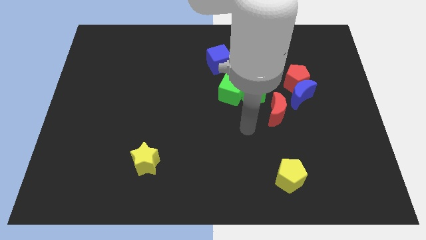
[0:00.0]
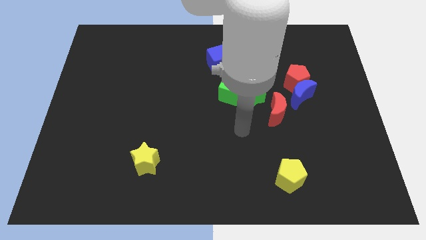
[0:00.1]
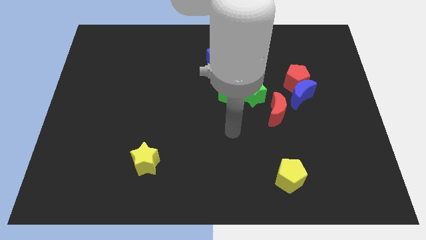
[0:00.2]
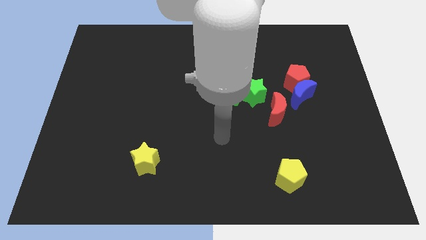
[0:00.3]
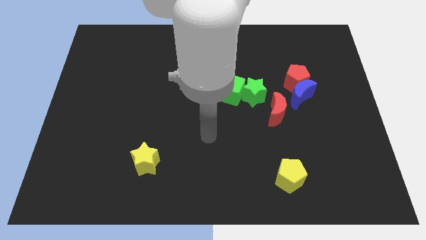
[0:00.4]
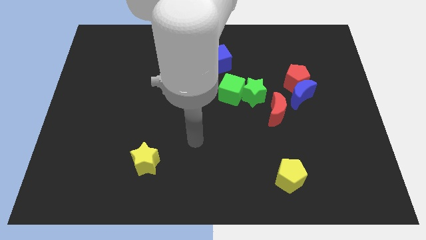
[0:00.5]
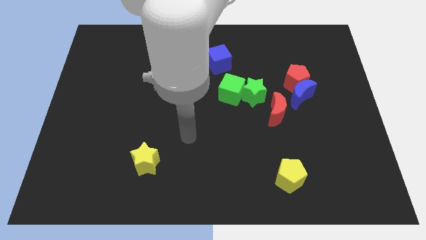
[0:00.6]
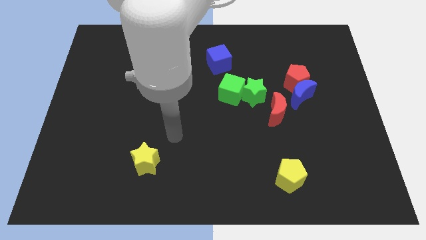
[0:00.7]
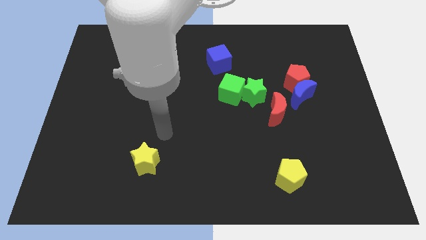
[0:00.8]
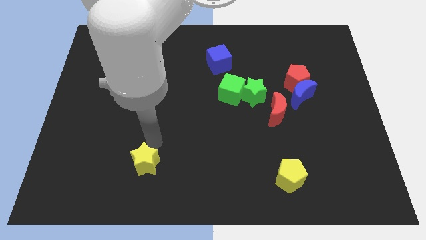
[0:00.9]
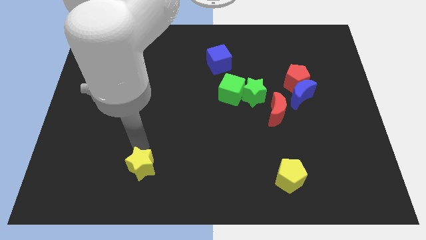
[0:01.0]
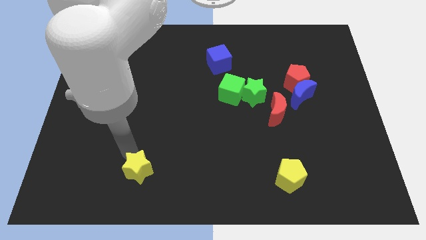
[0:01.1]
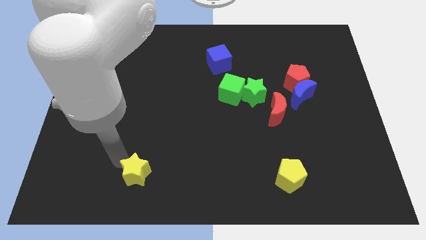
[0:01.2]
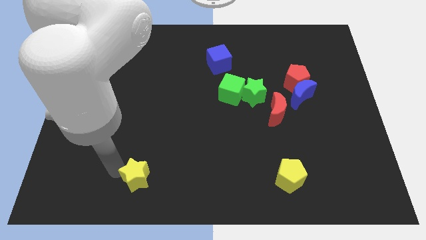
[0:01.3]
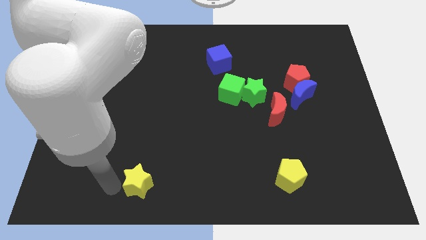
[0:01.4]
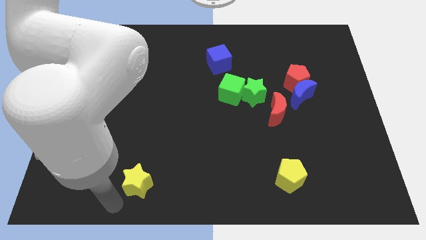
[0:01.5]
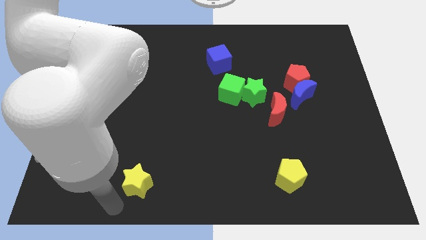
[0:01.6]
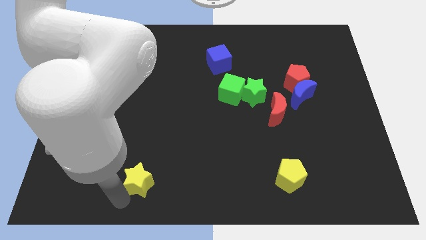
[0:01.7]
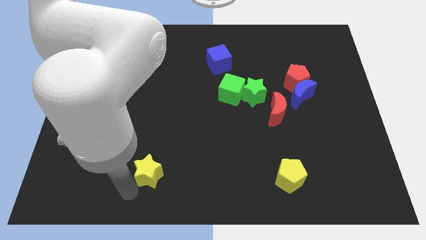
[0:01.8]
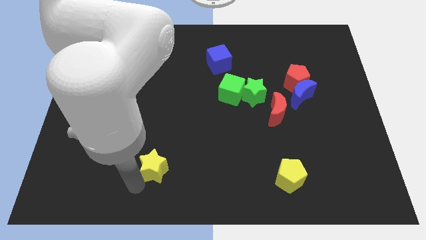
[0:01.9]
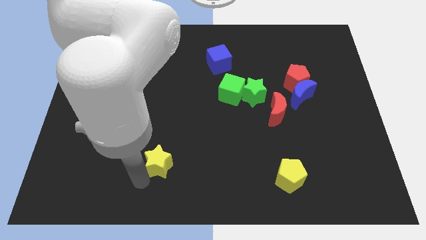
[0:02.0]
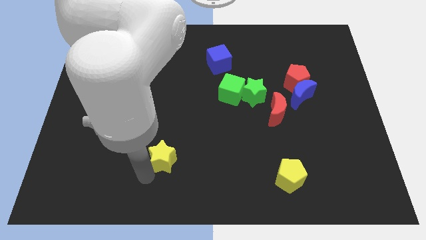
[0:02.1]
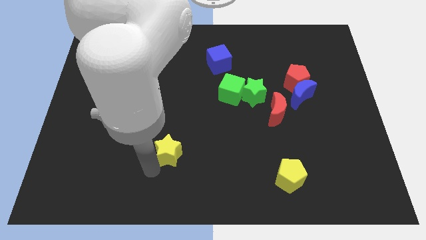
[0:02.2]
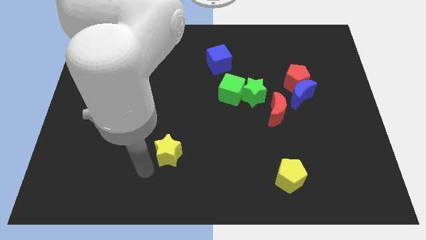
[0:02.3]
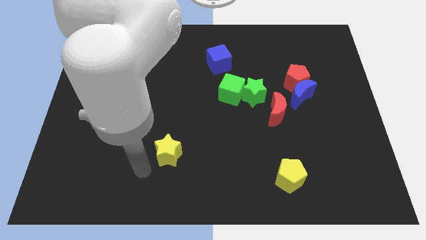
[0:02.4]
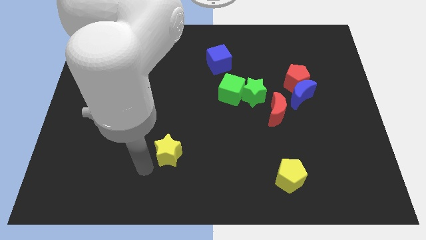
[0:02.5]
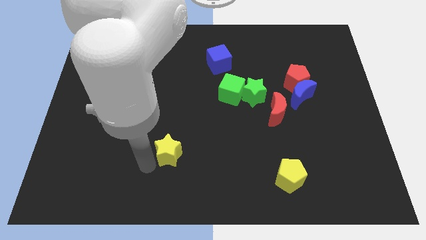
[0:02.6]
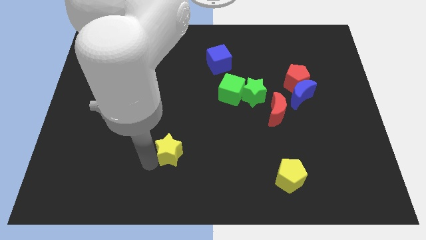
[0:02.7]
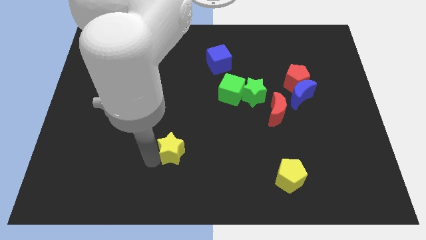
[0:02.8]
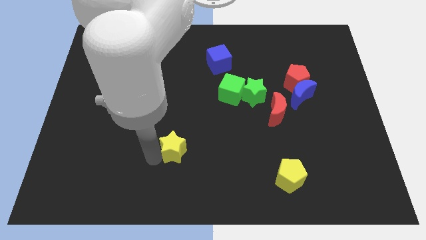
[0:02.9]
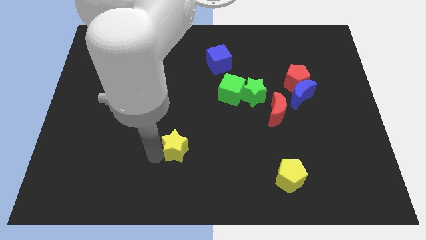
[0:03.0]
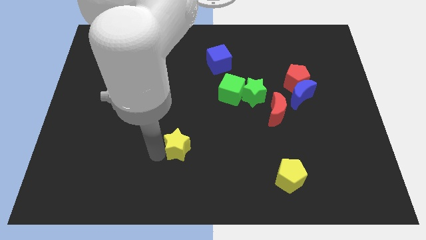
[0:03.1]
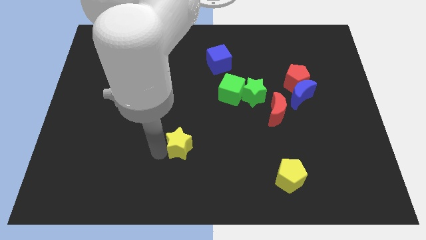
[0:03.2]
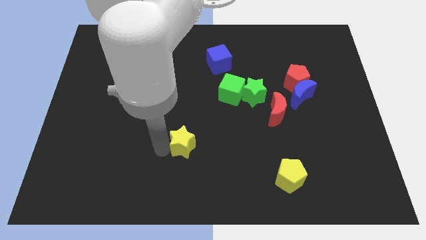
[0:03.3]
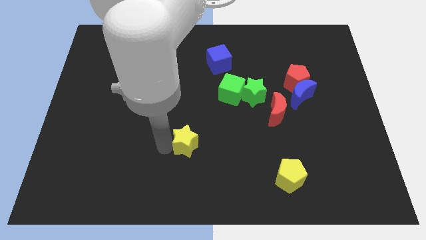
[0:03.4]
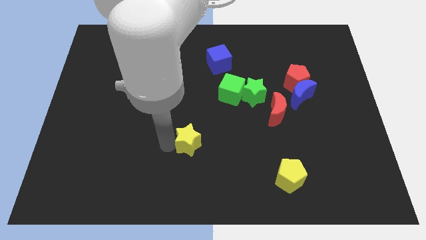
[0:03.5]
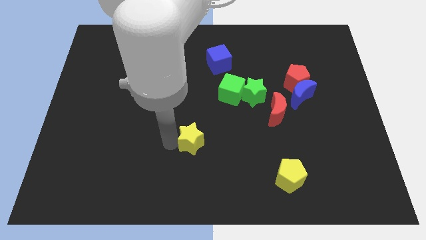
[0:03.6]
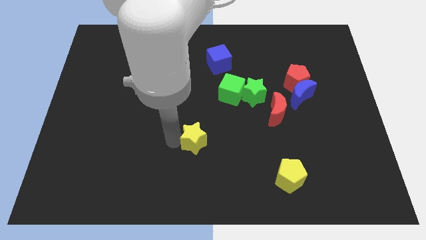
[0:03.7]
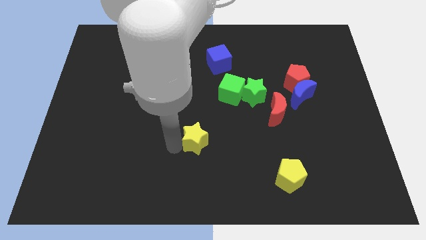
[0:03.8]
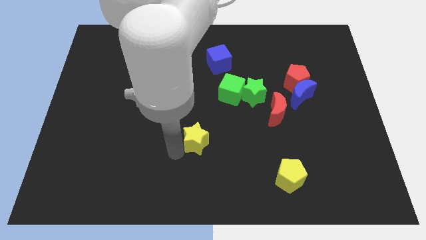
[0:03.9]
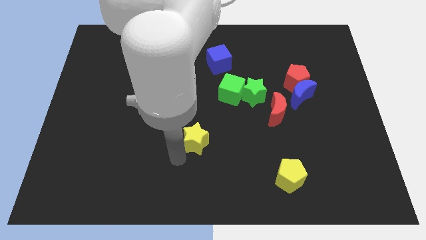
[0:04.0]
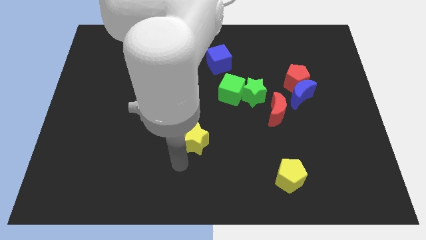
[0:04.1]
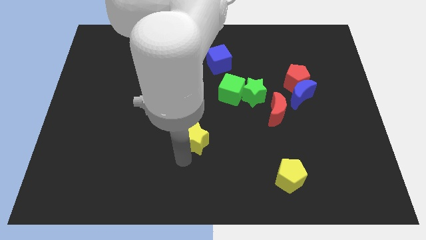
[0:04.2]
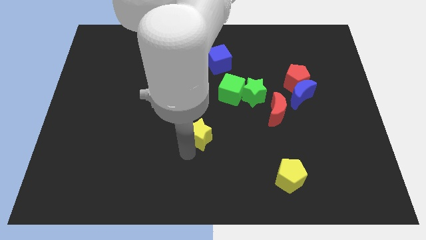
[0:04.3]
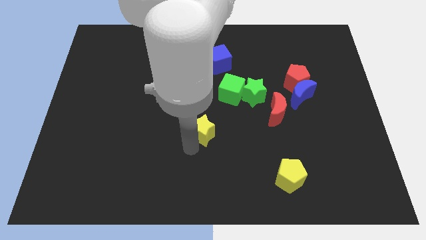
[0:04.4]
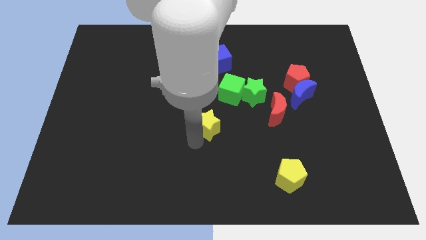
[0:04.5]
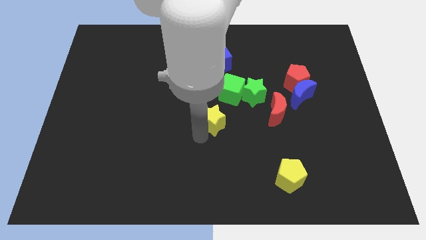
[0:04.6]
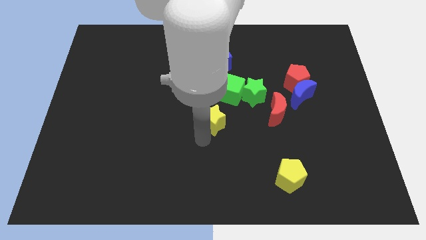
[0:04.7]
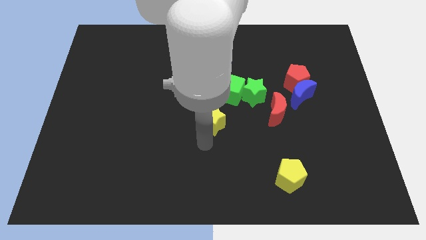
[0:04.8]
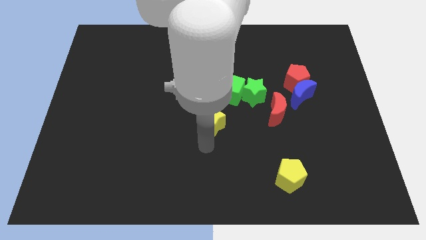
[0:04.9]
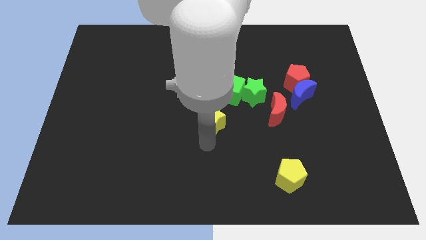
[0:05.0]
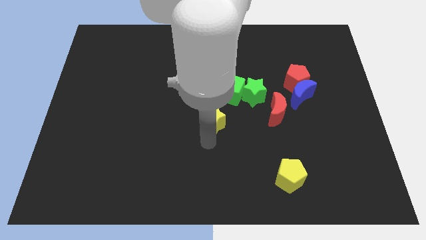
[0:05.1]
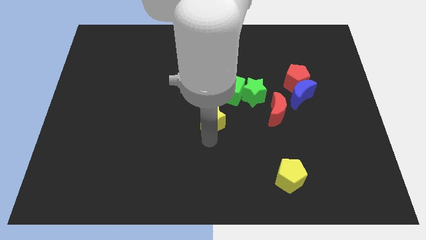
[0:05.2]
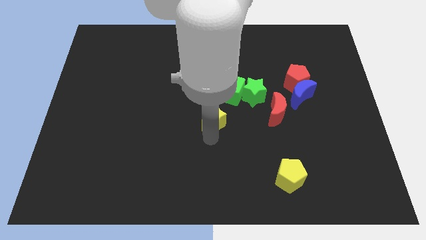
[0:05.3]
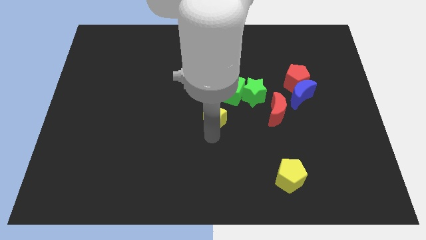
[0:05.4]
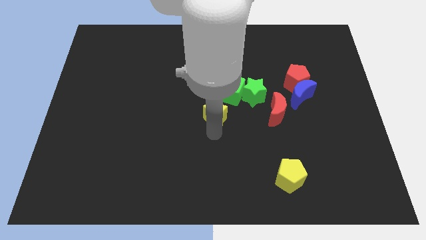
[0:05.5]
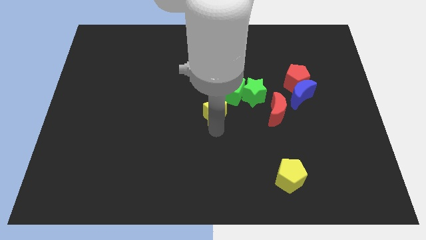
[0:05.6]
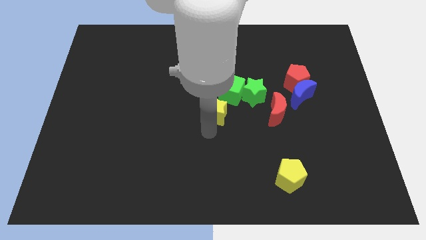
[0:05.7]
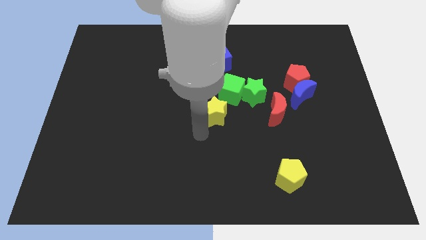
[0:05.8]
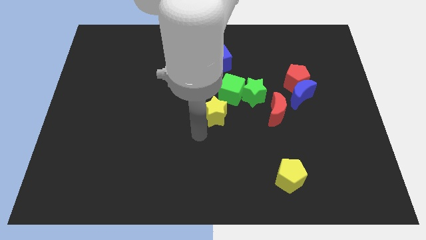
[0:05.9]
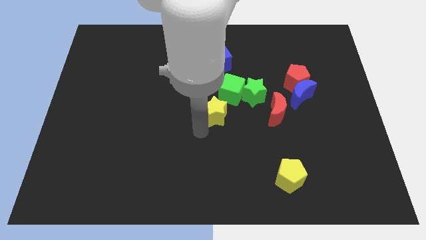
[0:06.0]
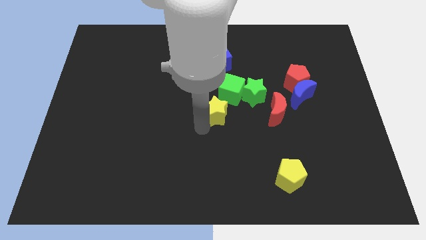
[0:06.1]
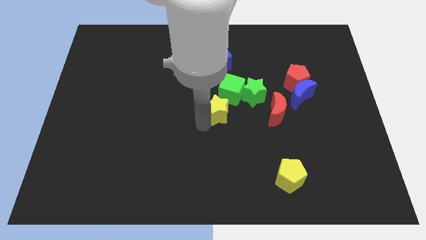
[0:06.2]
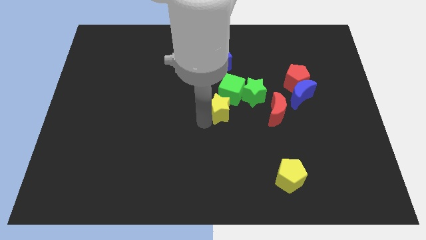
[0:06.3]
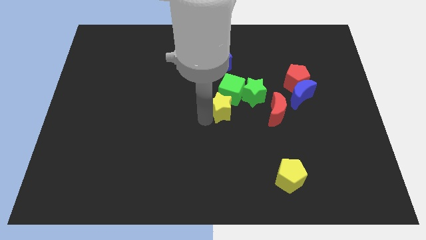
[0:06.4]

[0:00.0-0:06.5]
move the yellow star next to the green cube
